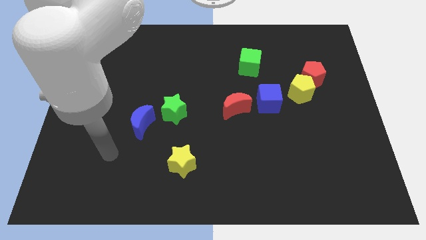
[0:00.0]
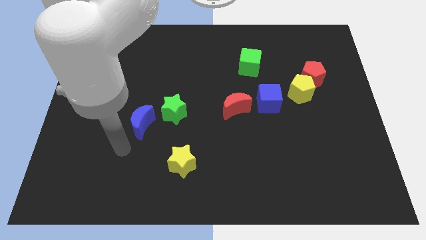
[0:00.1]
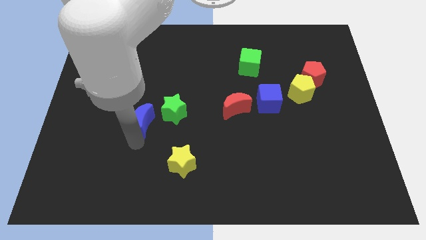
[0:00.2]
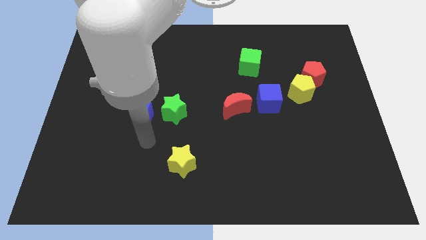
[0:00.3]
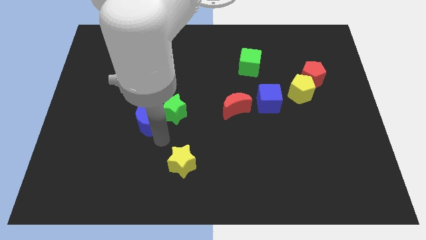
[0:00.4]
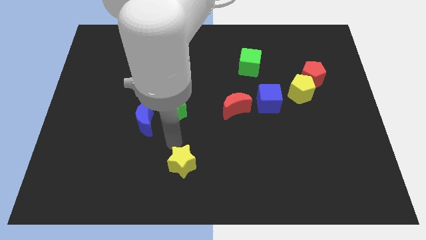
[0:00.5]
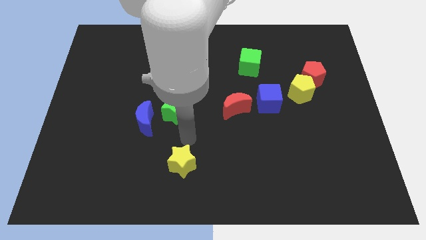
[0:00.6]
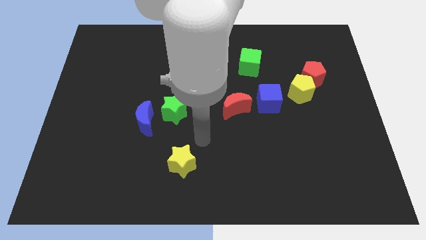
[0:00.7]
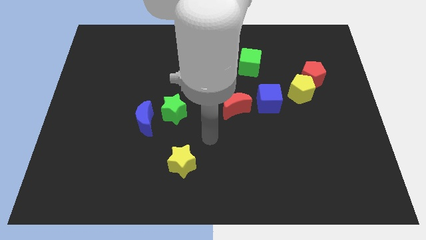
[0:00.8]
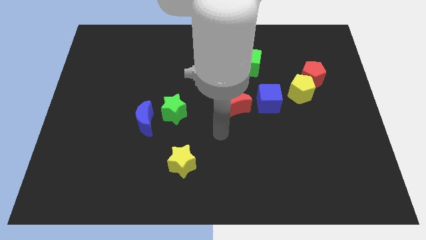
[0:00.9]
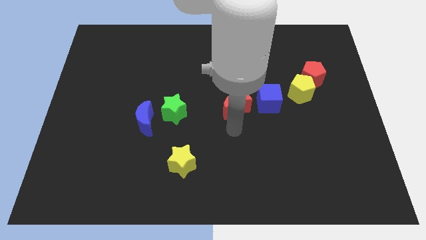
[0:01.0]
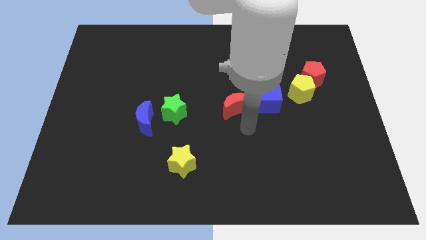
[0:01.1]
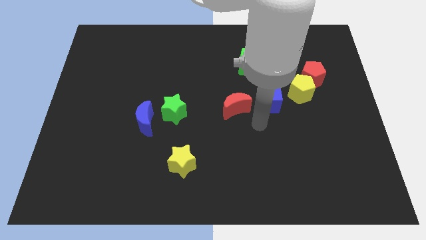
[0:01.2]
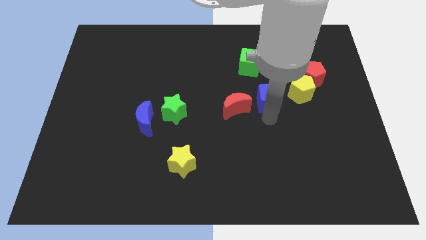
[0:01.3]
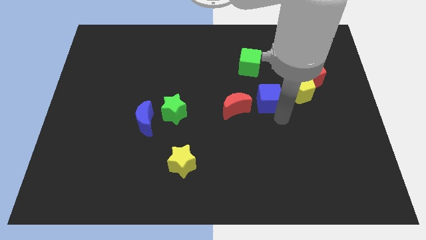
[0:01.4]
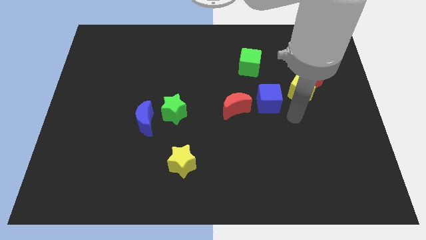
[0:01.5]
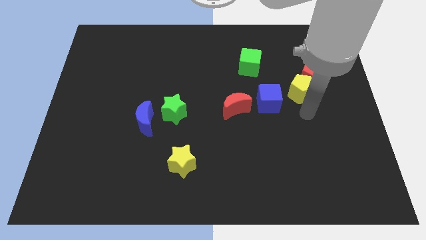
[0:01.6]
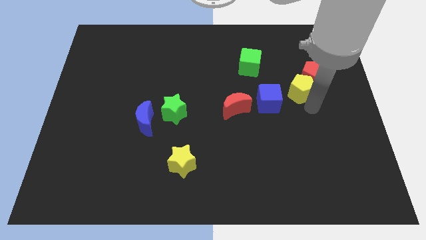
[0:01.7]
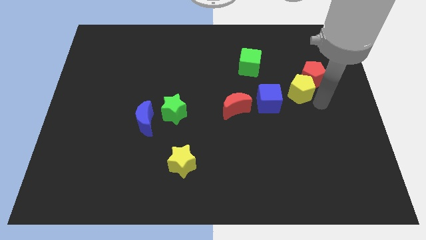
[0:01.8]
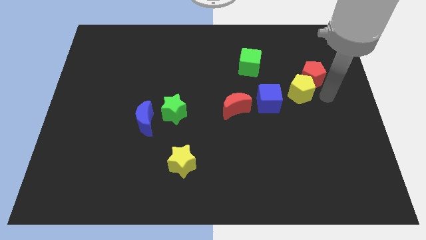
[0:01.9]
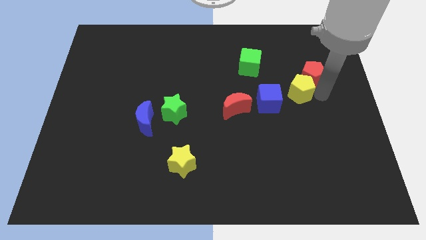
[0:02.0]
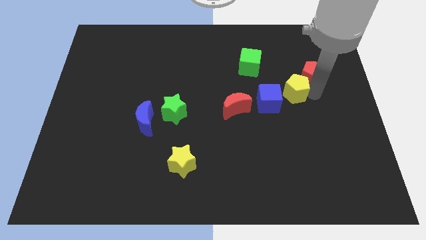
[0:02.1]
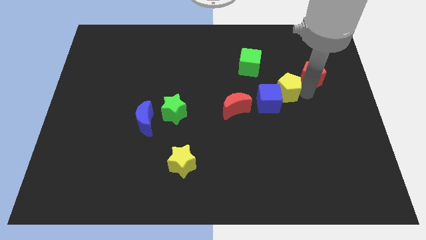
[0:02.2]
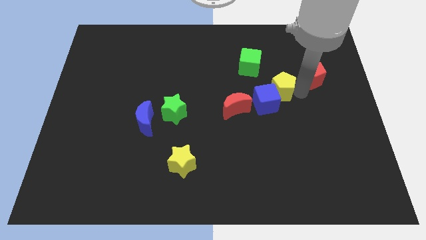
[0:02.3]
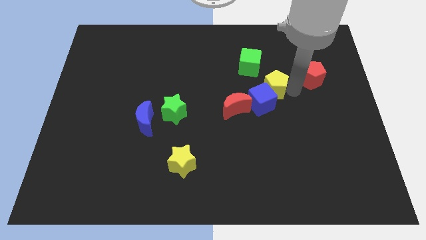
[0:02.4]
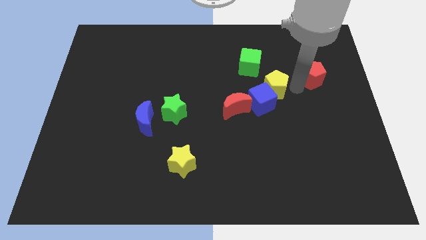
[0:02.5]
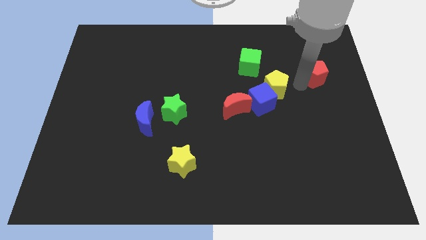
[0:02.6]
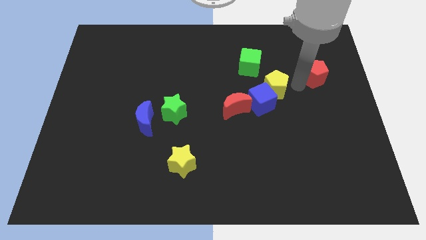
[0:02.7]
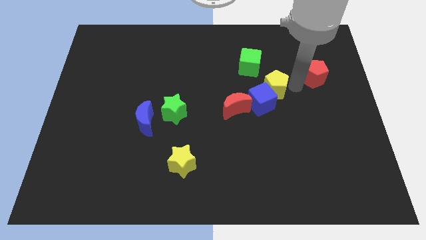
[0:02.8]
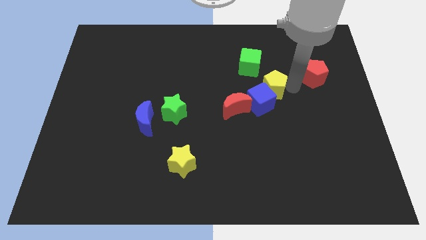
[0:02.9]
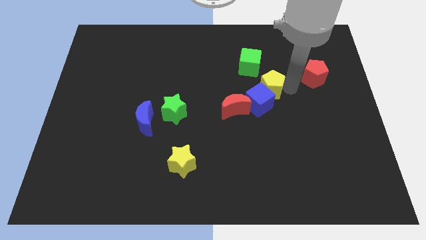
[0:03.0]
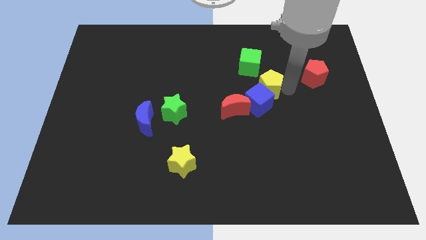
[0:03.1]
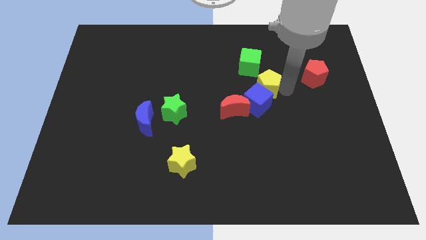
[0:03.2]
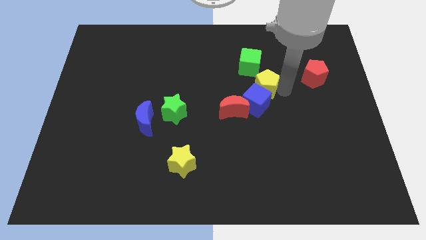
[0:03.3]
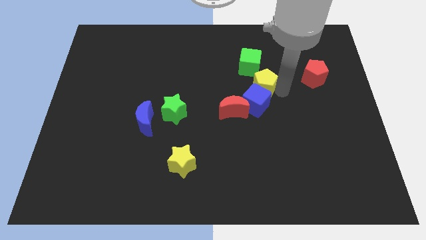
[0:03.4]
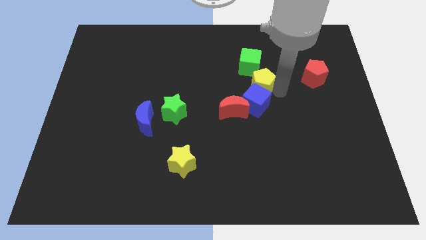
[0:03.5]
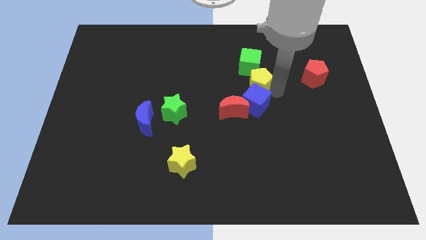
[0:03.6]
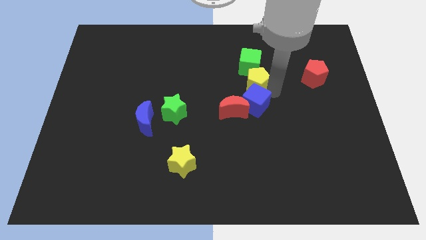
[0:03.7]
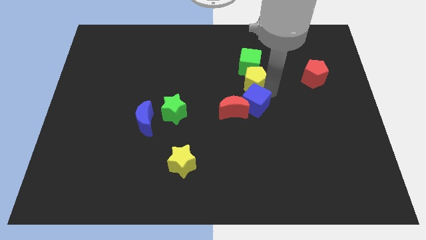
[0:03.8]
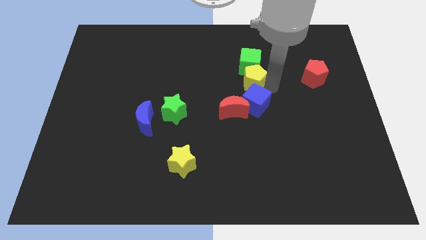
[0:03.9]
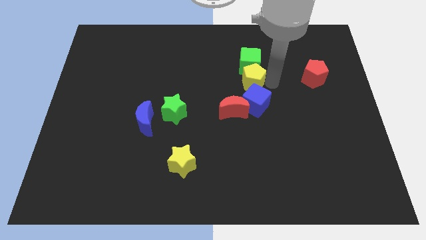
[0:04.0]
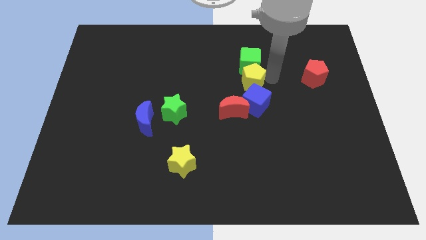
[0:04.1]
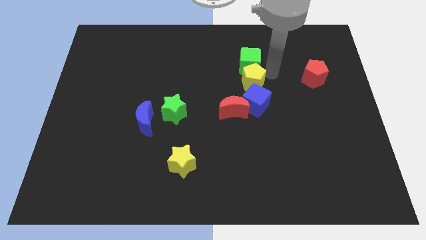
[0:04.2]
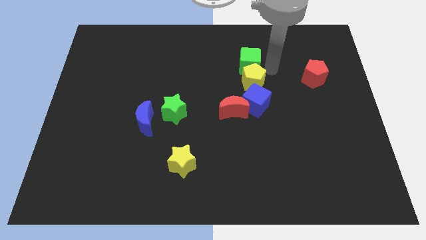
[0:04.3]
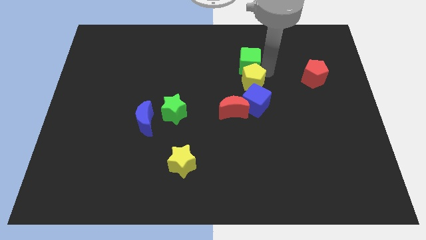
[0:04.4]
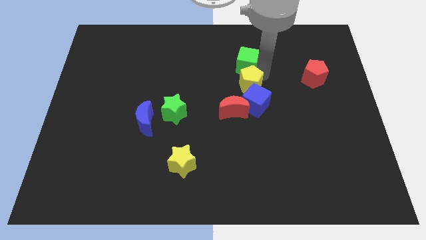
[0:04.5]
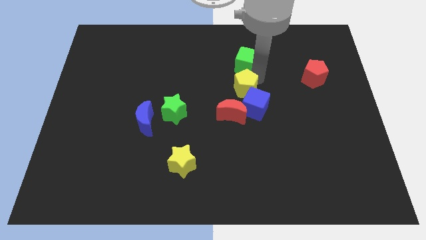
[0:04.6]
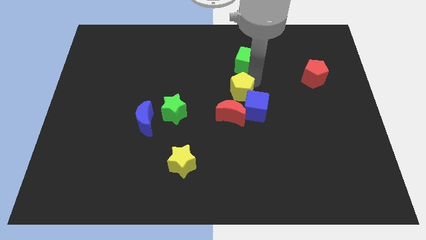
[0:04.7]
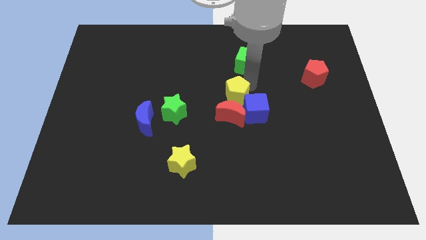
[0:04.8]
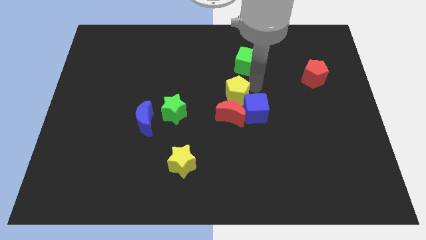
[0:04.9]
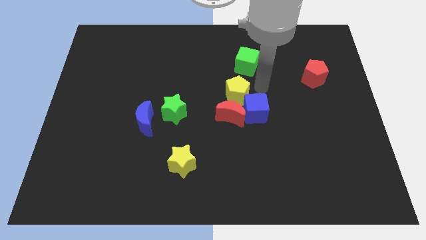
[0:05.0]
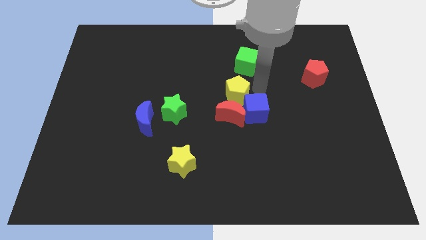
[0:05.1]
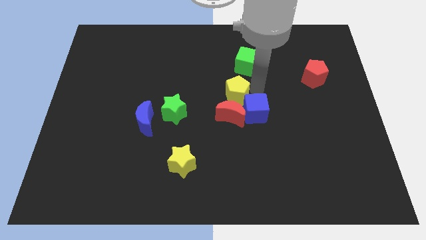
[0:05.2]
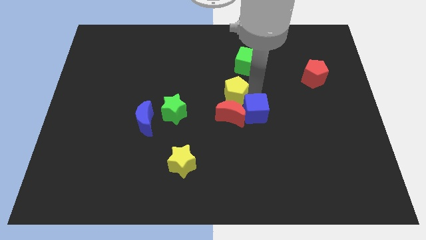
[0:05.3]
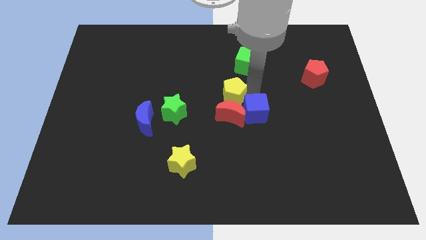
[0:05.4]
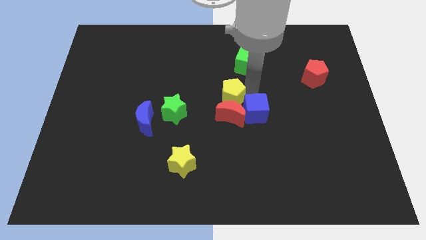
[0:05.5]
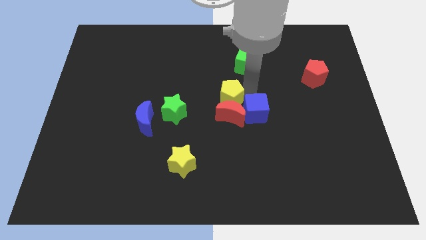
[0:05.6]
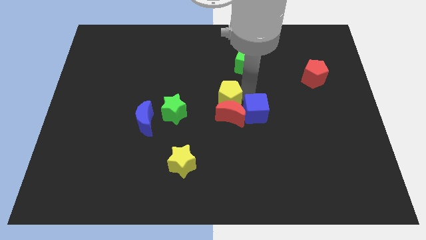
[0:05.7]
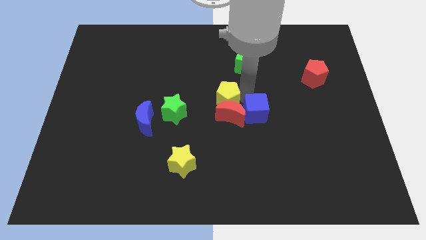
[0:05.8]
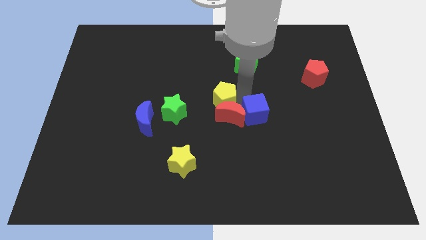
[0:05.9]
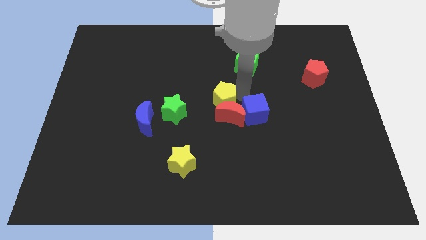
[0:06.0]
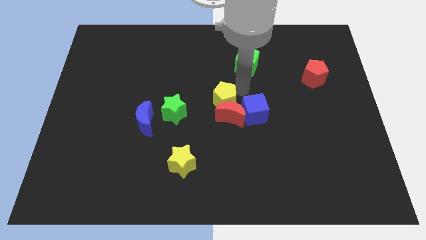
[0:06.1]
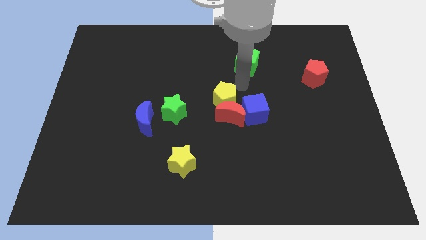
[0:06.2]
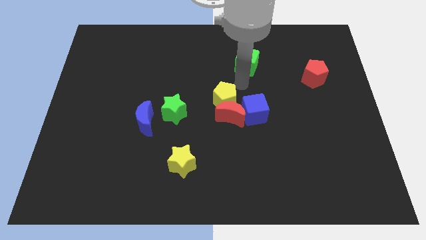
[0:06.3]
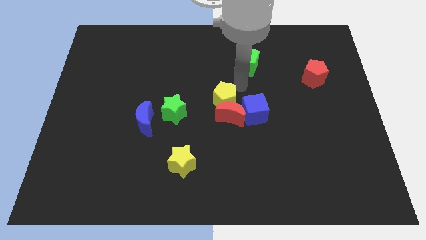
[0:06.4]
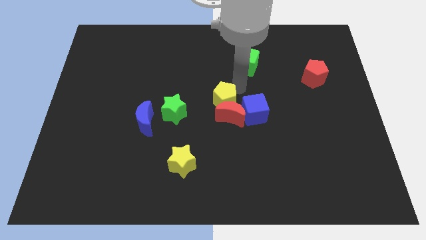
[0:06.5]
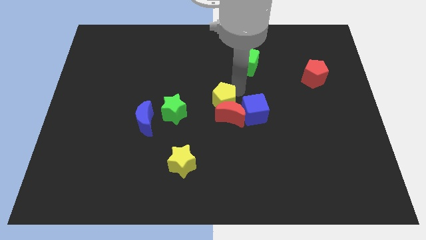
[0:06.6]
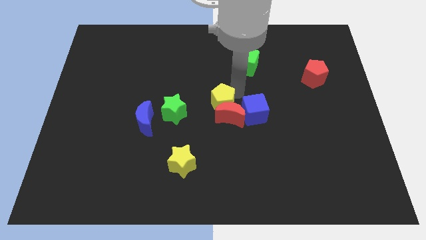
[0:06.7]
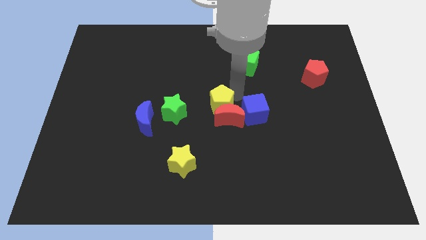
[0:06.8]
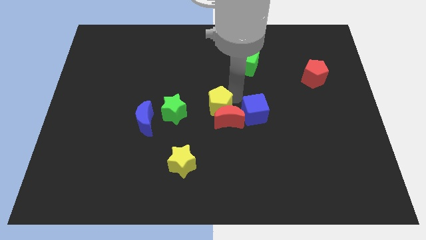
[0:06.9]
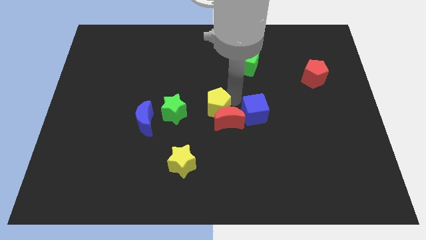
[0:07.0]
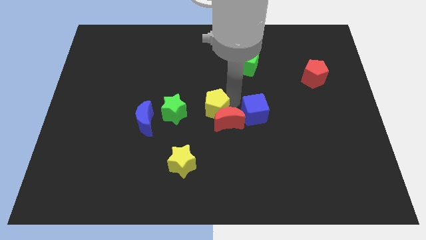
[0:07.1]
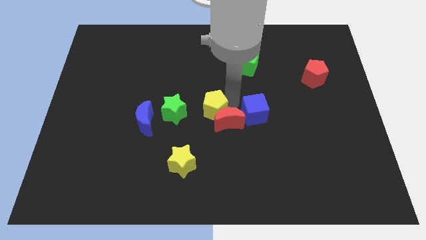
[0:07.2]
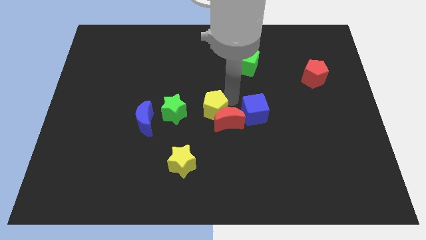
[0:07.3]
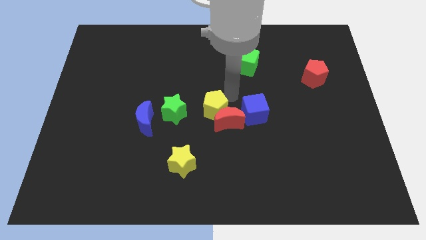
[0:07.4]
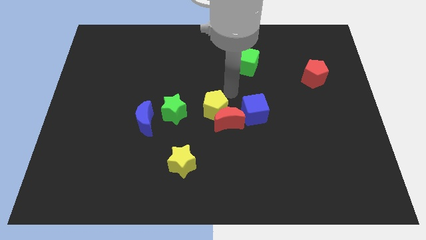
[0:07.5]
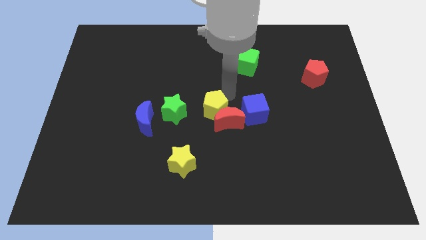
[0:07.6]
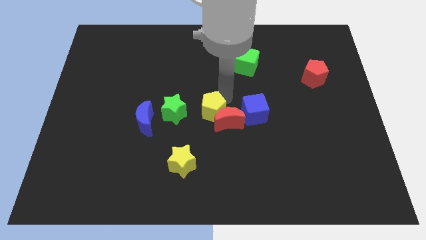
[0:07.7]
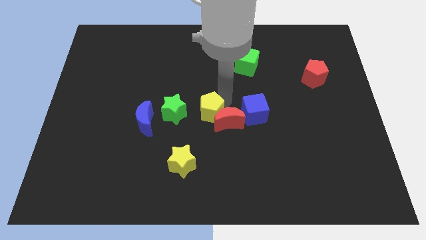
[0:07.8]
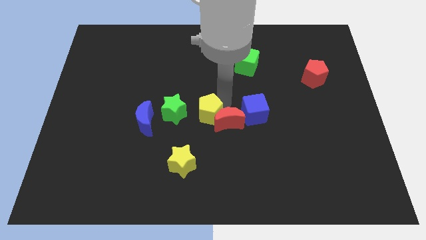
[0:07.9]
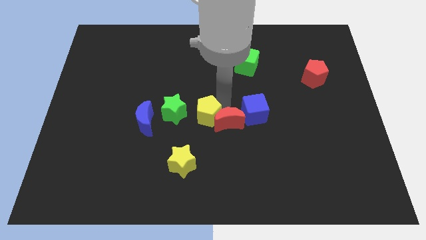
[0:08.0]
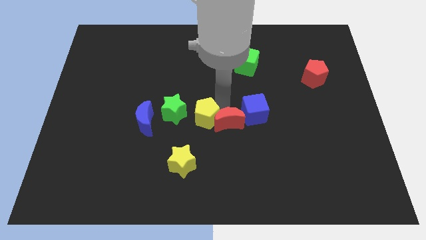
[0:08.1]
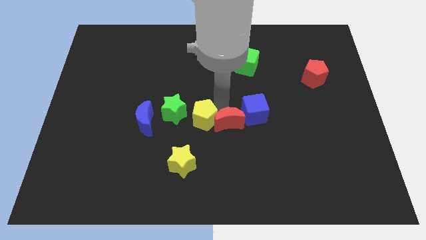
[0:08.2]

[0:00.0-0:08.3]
put the yellow pentagon above the yellow star
